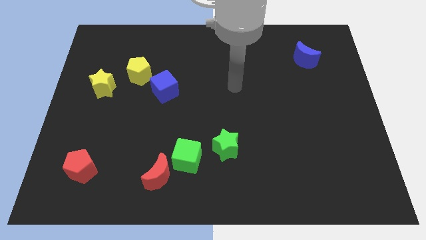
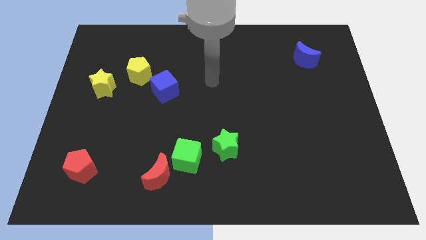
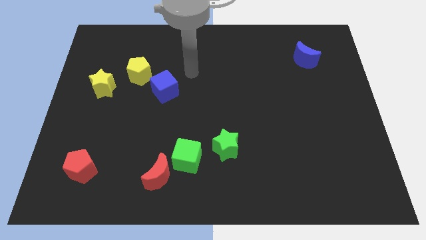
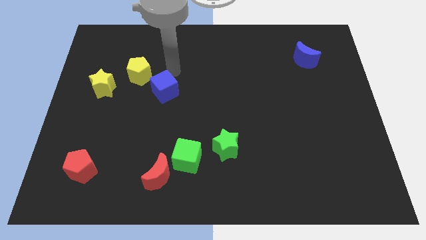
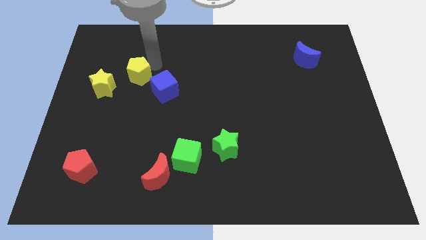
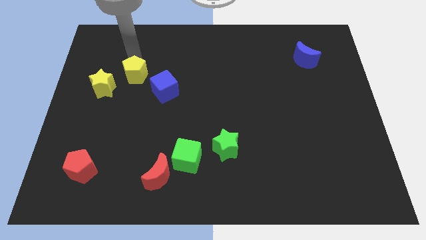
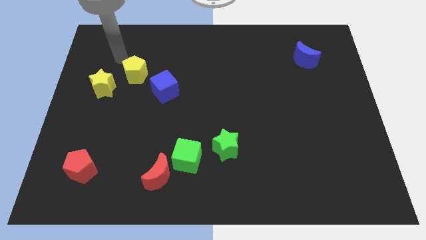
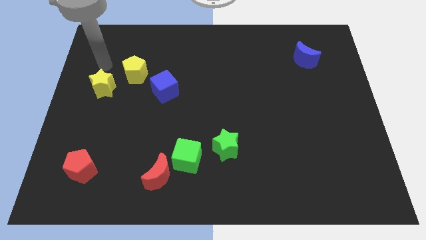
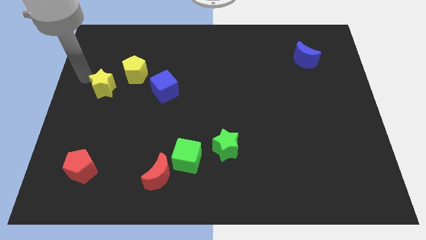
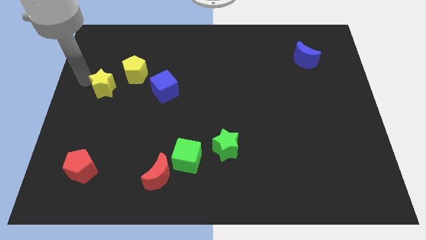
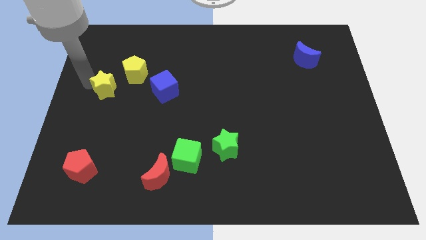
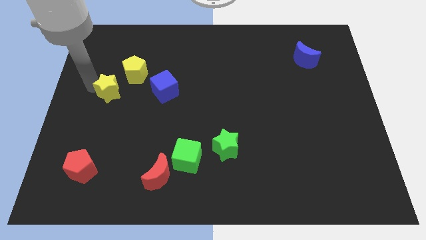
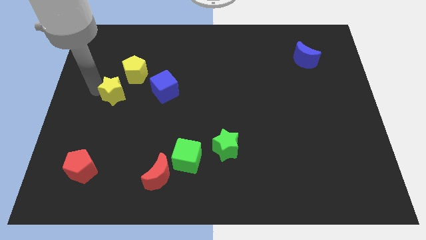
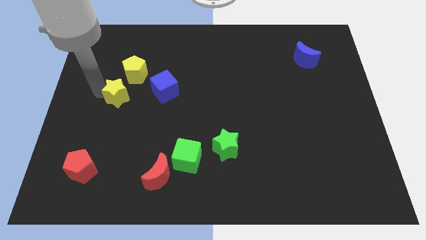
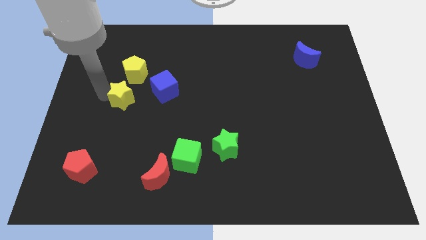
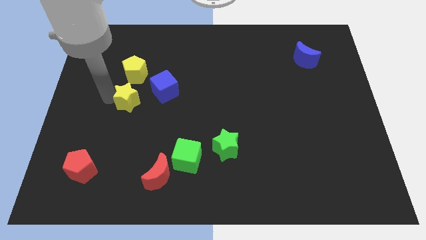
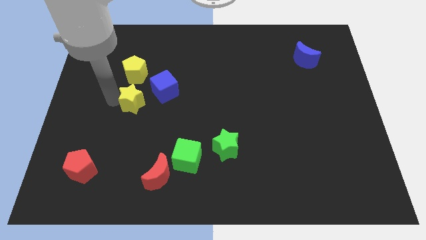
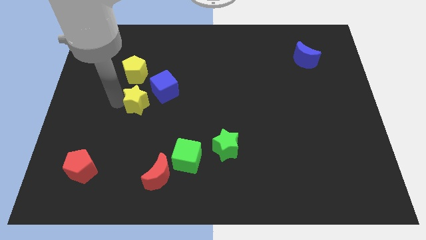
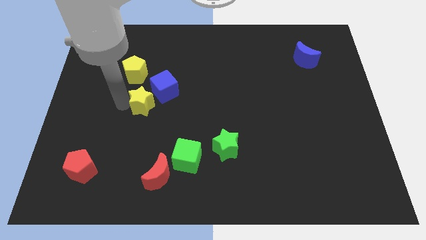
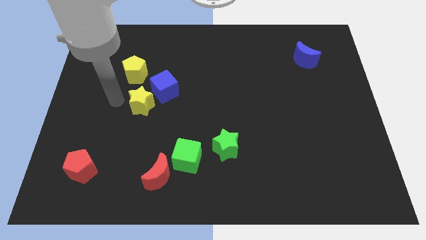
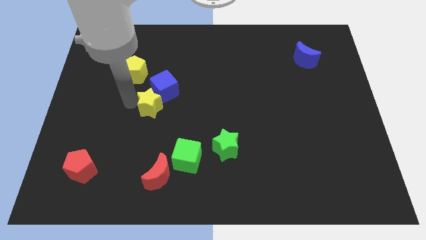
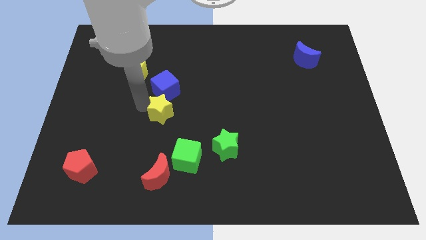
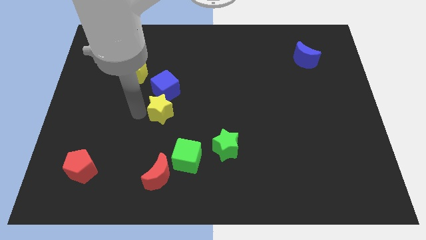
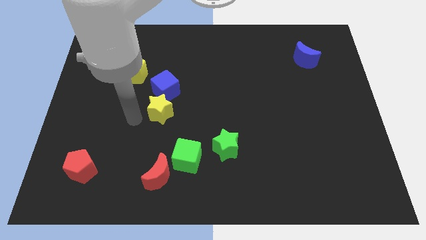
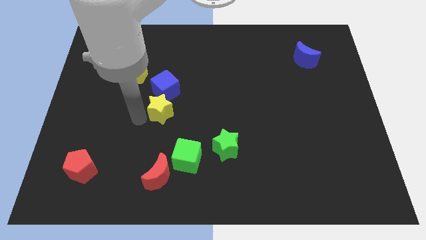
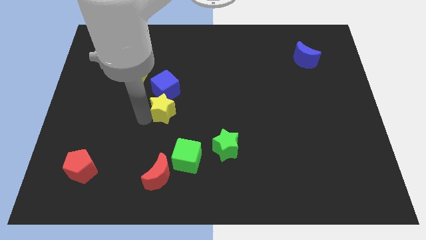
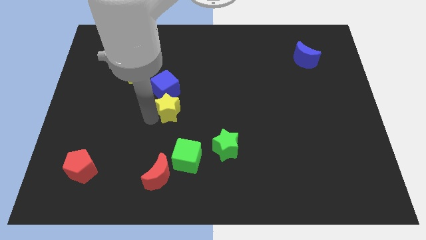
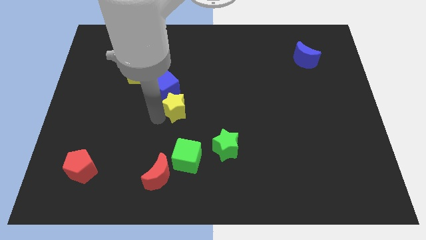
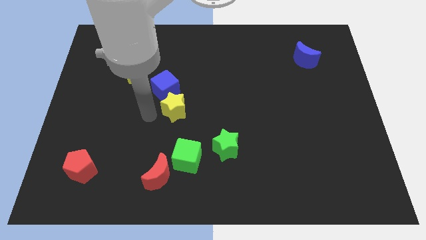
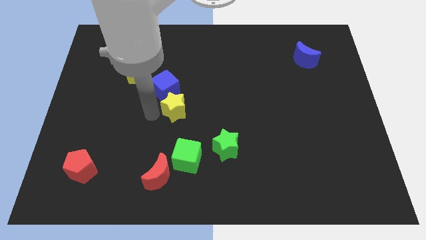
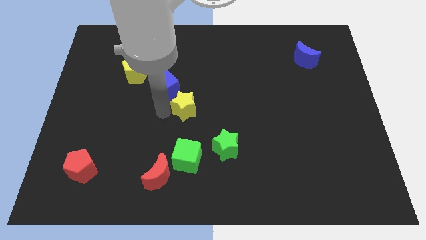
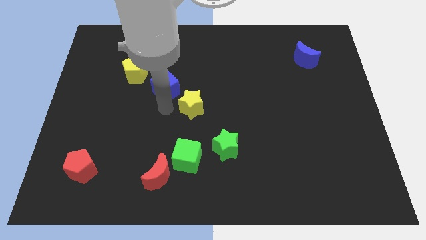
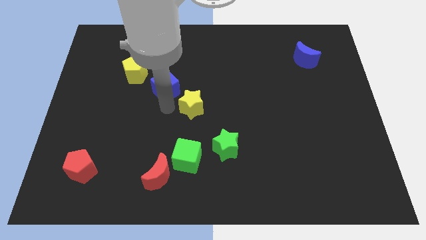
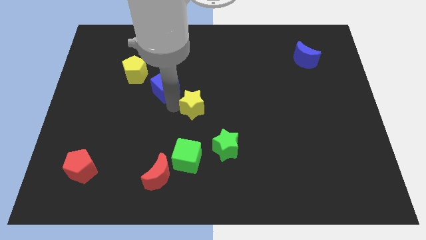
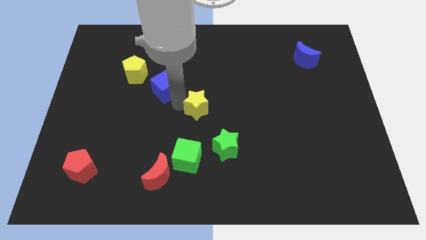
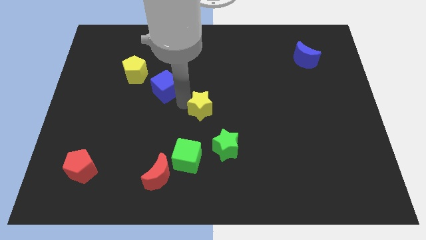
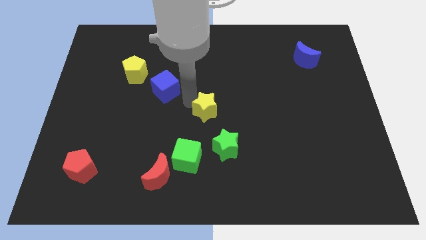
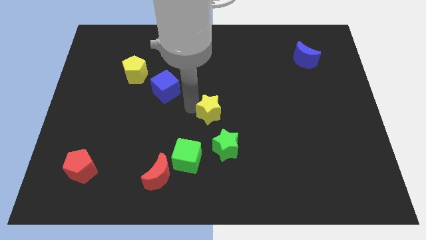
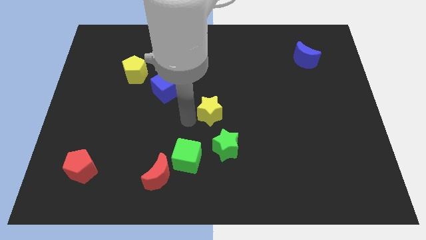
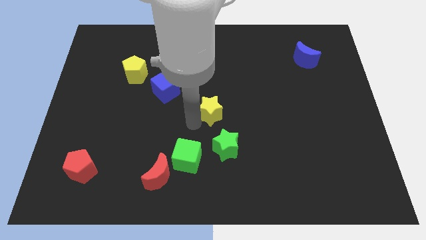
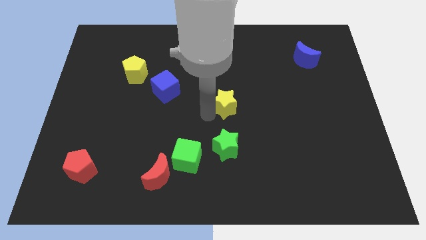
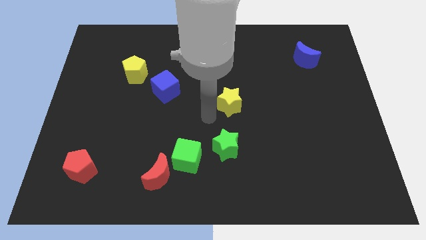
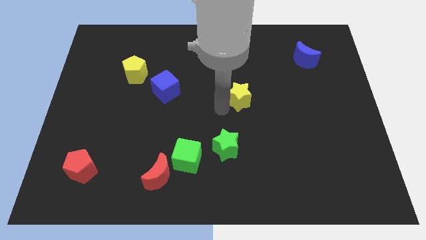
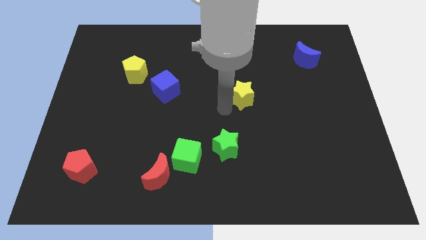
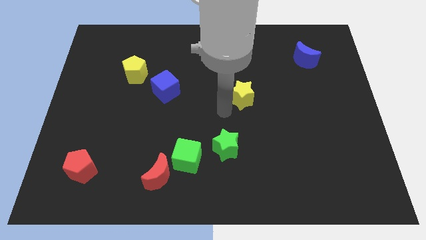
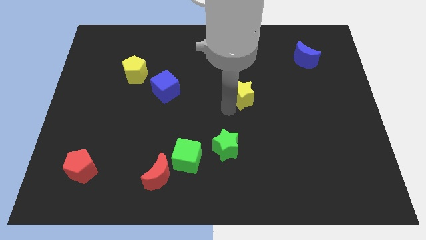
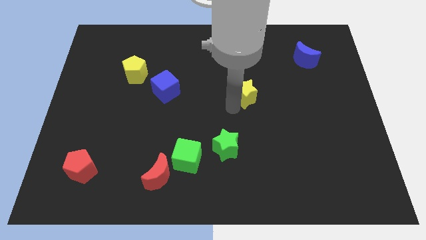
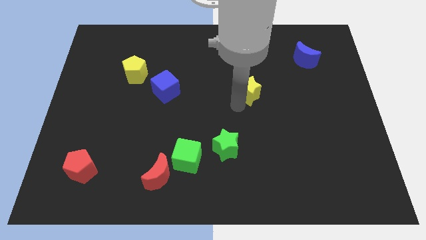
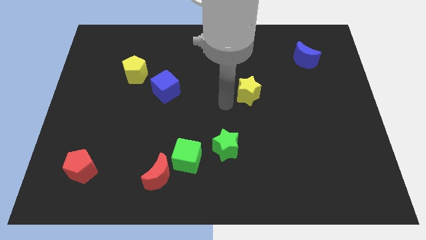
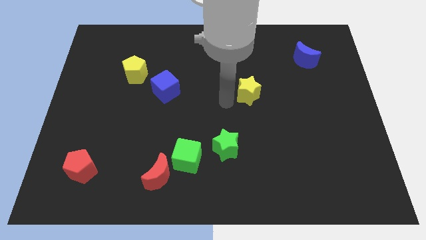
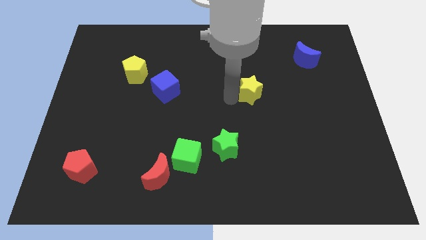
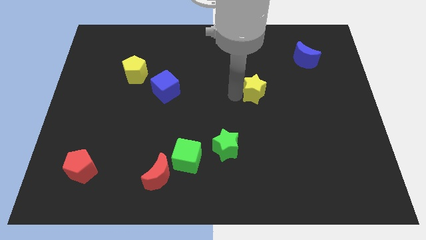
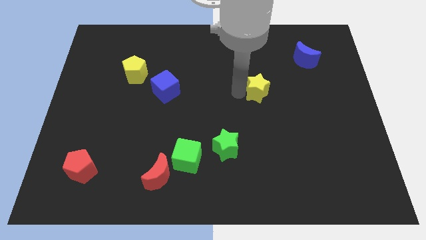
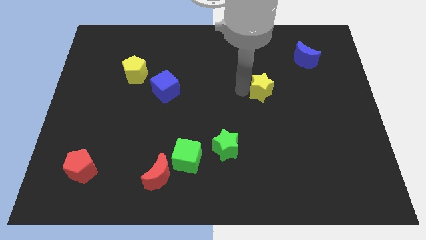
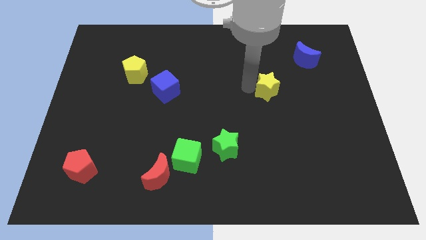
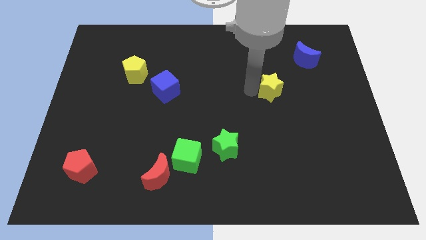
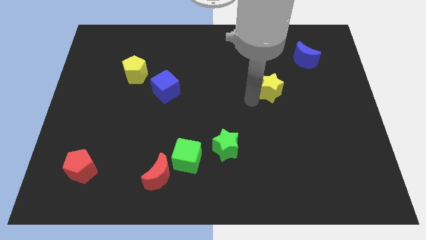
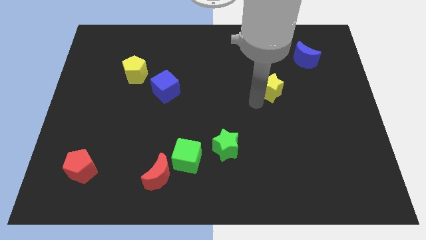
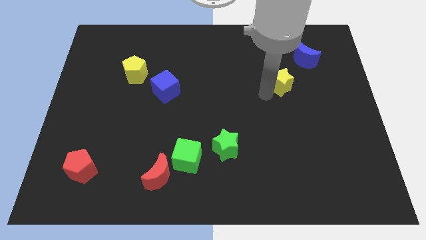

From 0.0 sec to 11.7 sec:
push the yellow star to the bottom left side of the blue moon

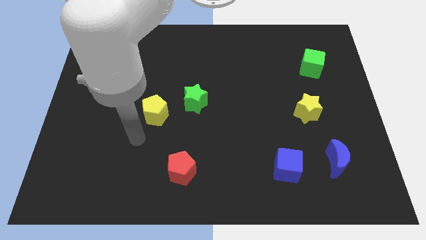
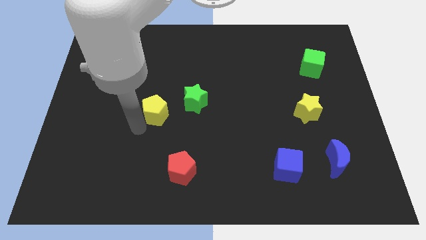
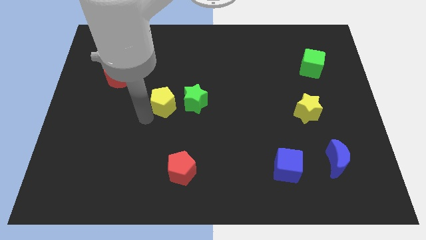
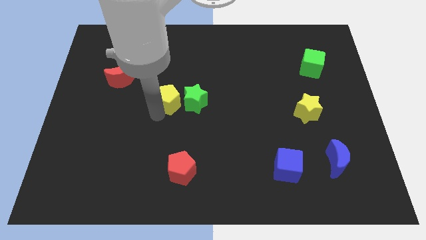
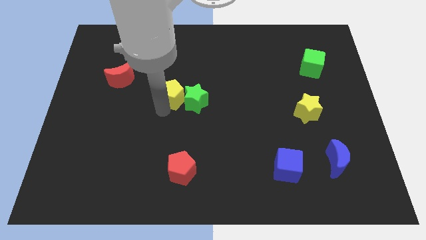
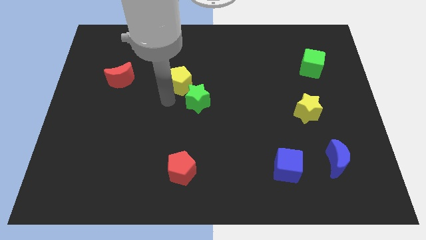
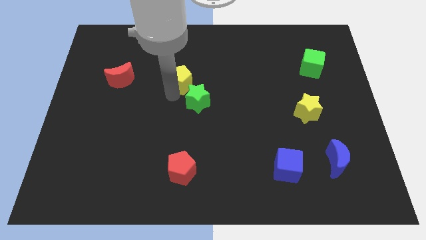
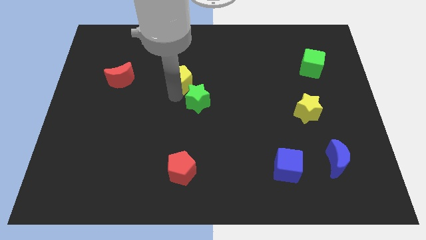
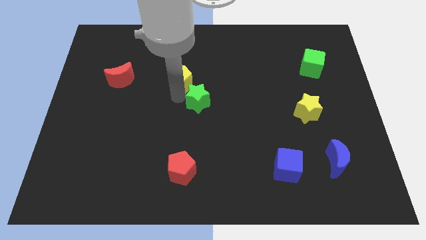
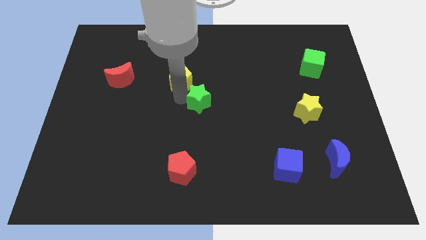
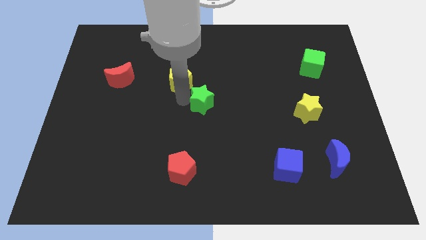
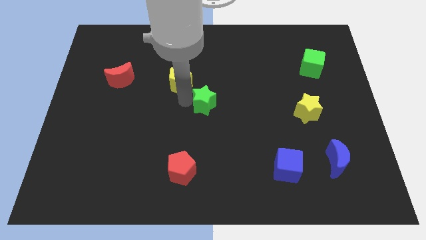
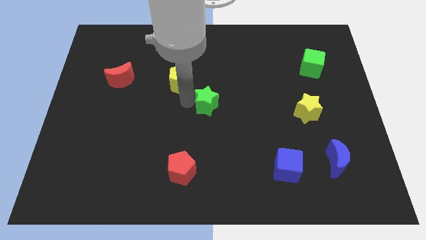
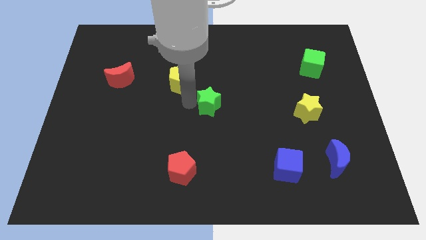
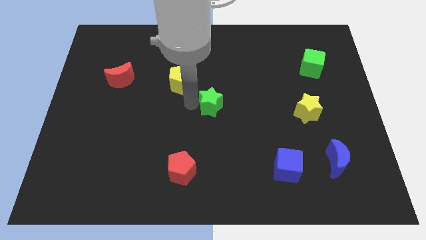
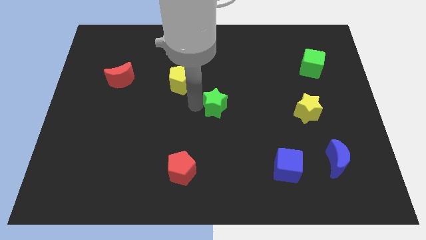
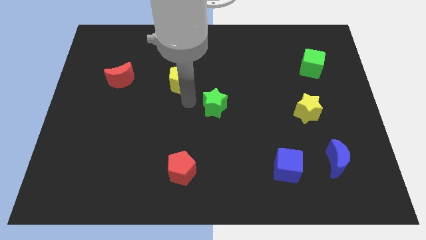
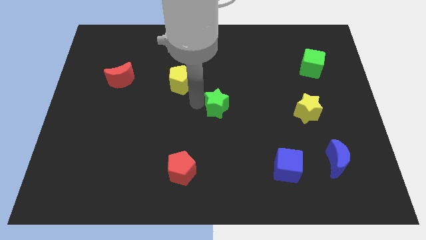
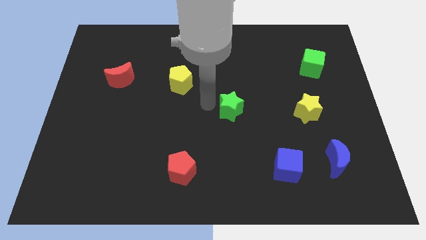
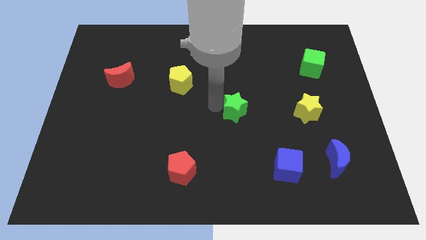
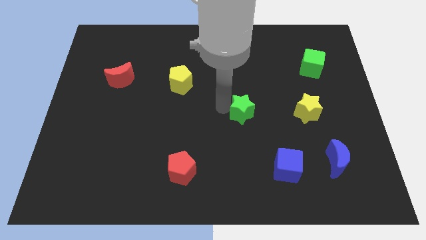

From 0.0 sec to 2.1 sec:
slide the green star just left of the yellow star
